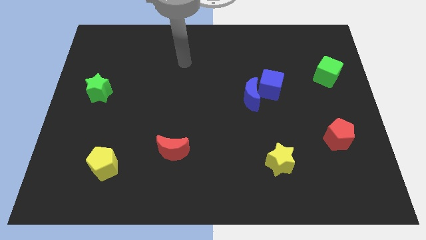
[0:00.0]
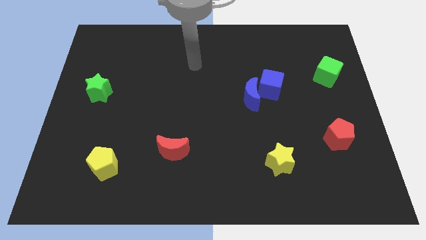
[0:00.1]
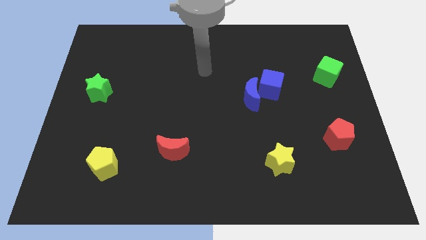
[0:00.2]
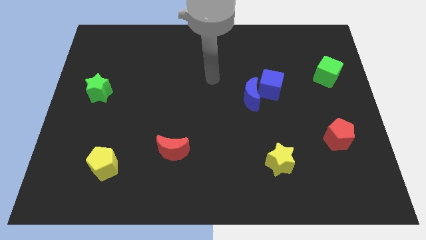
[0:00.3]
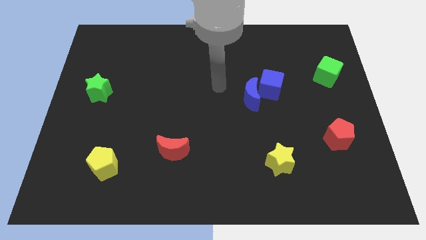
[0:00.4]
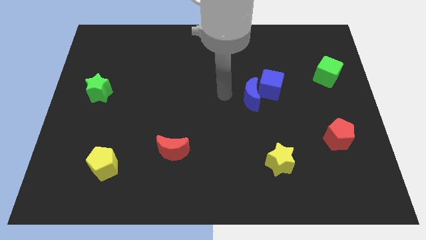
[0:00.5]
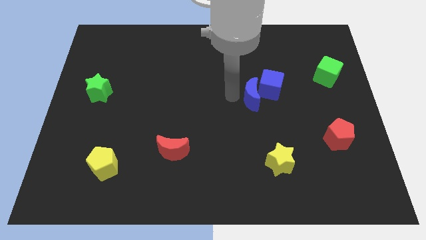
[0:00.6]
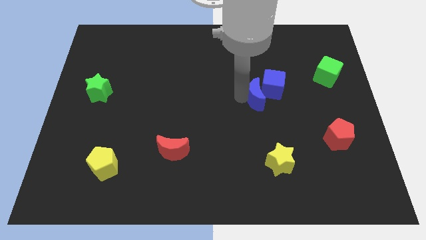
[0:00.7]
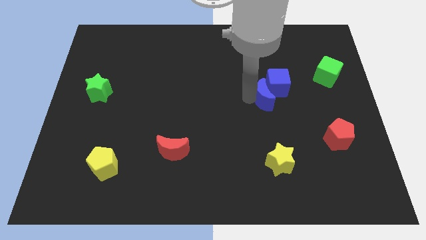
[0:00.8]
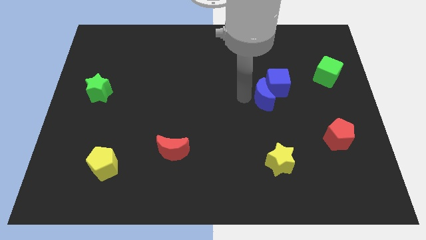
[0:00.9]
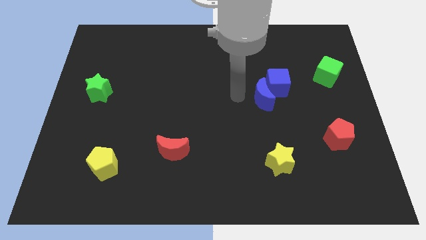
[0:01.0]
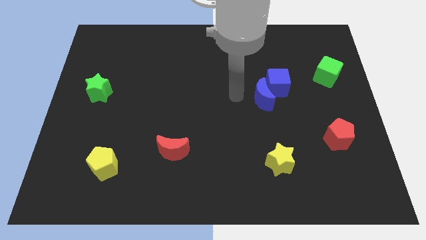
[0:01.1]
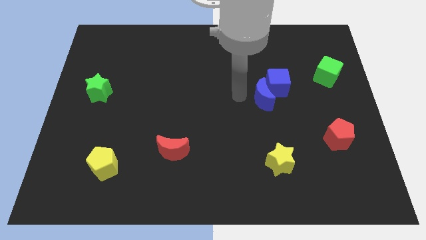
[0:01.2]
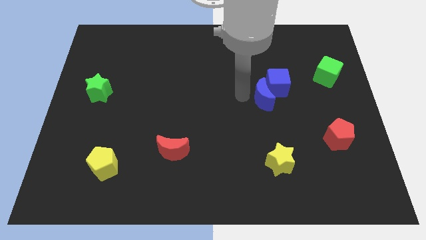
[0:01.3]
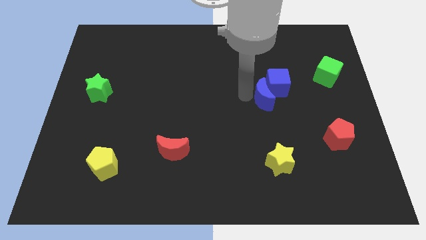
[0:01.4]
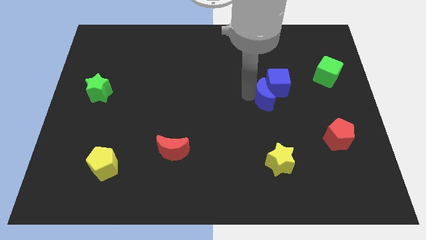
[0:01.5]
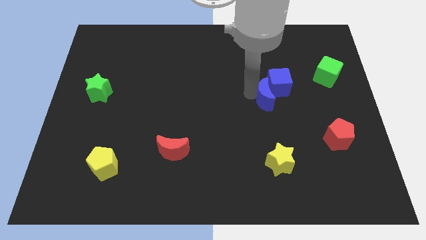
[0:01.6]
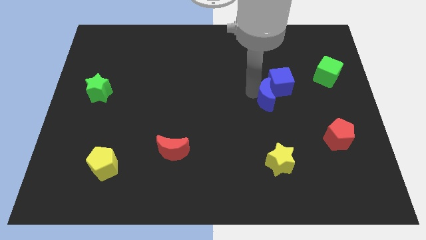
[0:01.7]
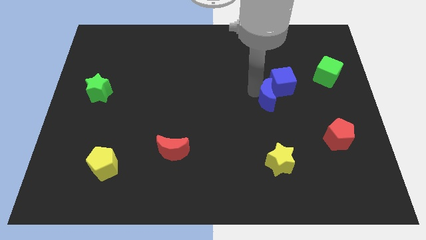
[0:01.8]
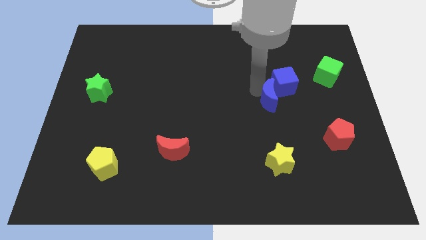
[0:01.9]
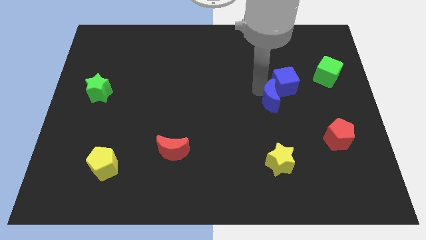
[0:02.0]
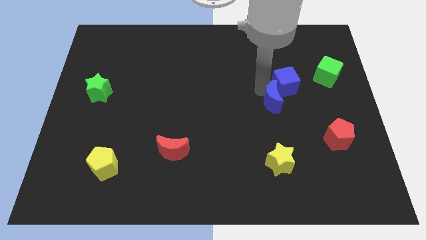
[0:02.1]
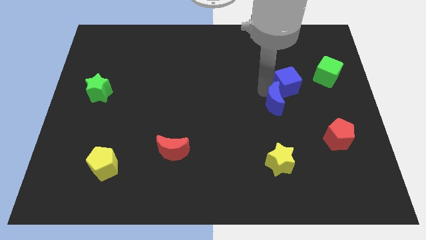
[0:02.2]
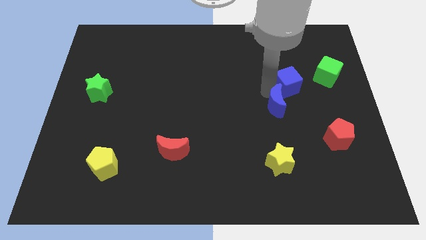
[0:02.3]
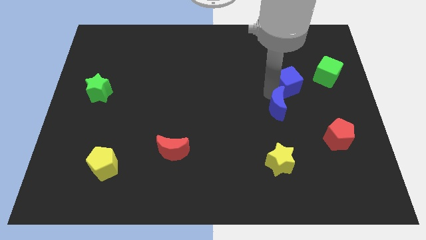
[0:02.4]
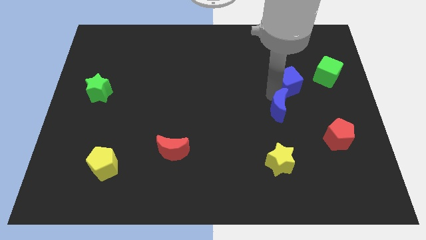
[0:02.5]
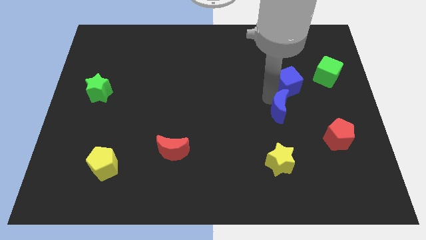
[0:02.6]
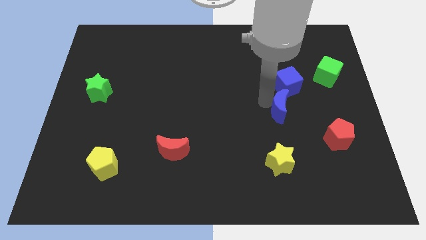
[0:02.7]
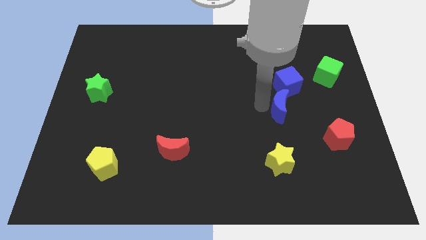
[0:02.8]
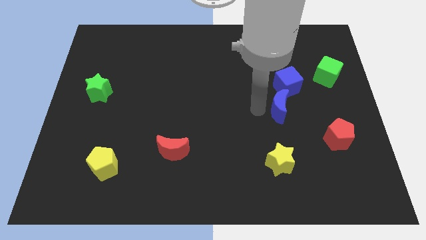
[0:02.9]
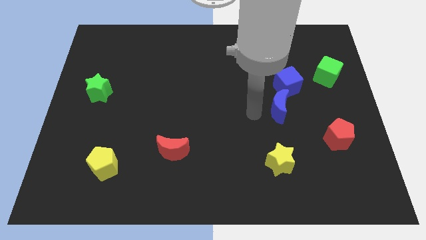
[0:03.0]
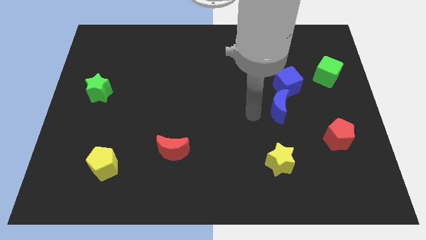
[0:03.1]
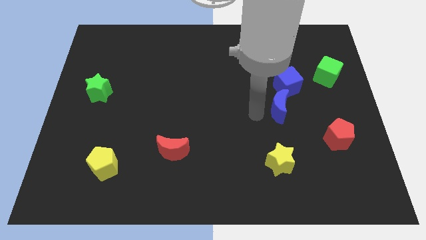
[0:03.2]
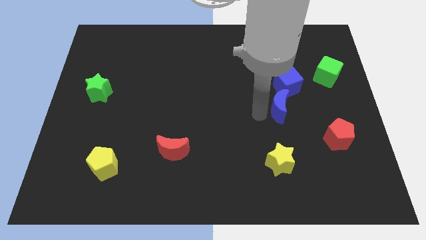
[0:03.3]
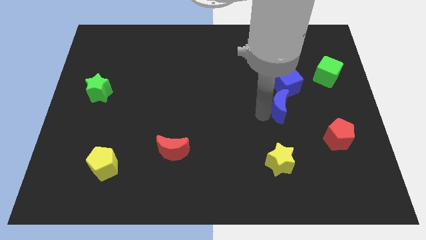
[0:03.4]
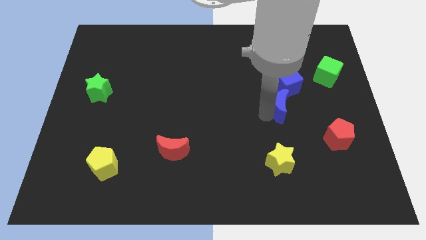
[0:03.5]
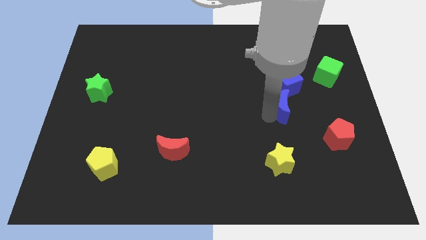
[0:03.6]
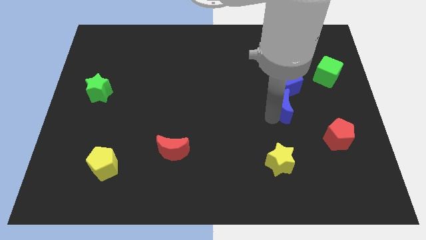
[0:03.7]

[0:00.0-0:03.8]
push the blue moon right a little

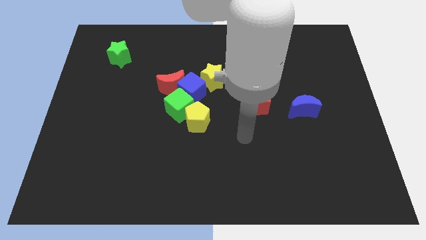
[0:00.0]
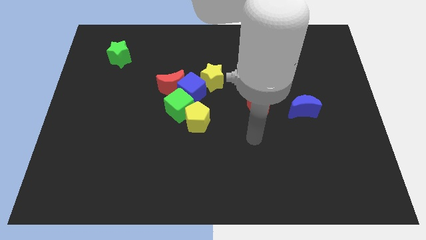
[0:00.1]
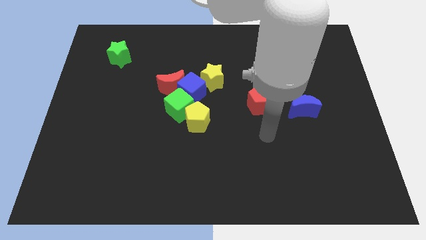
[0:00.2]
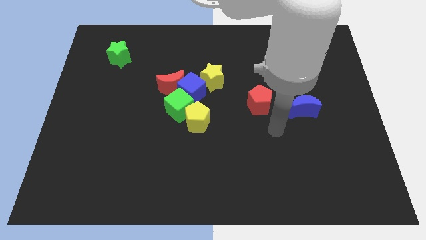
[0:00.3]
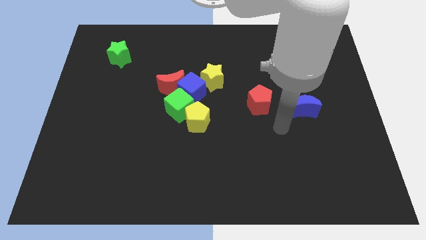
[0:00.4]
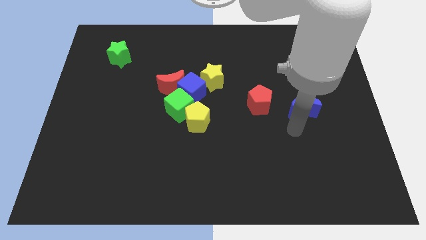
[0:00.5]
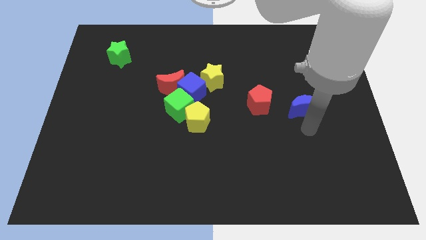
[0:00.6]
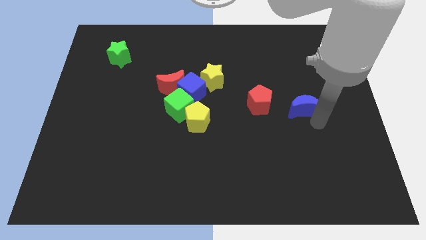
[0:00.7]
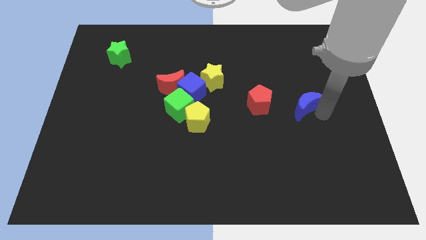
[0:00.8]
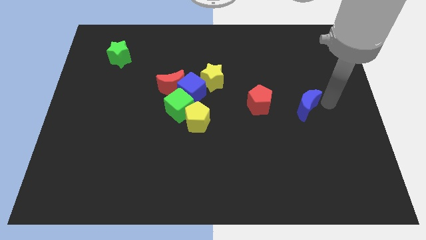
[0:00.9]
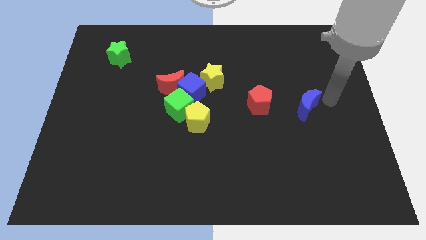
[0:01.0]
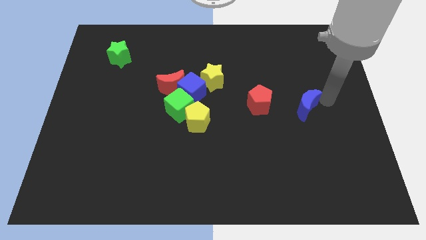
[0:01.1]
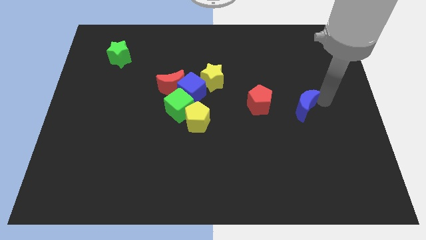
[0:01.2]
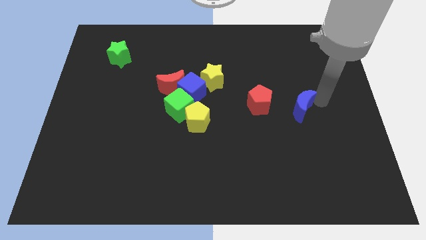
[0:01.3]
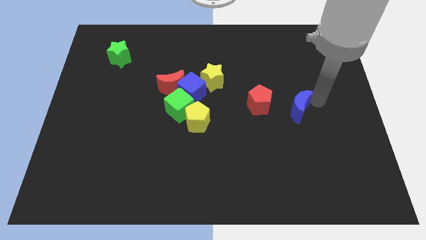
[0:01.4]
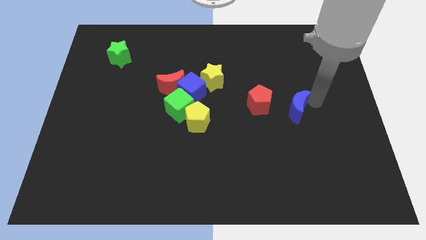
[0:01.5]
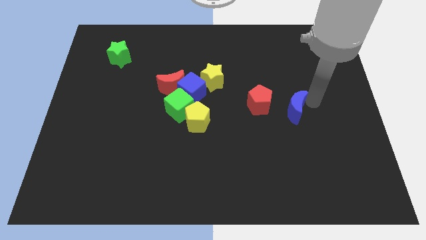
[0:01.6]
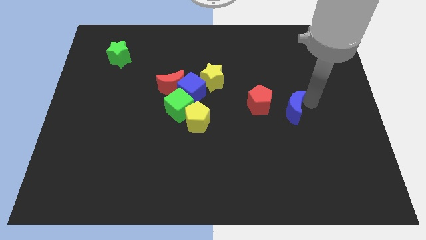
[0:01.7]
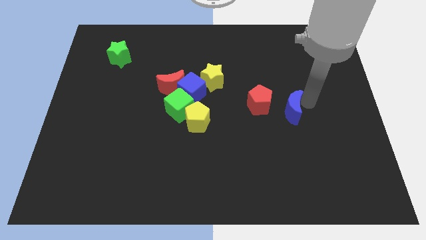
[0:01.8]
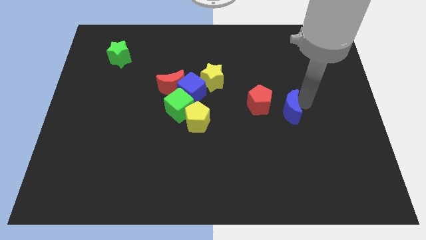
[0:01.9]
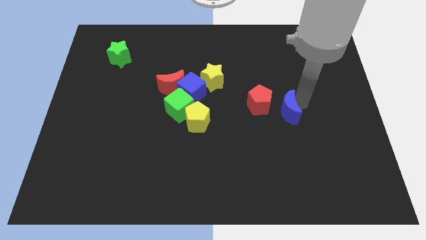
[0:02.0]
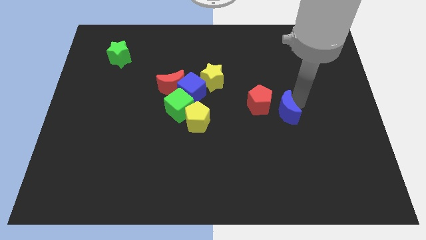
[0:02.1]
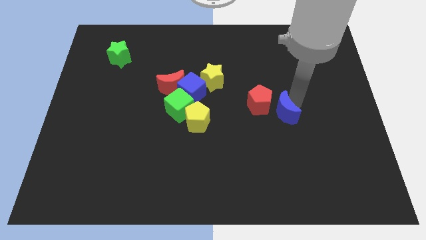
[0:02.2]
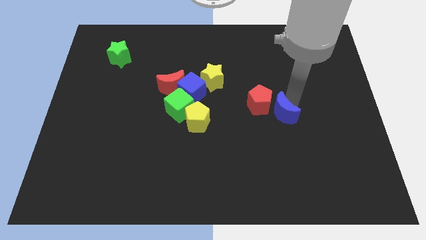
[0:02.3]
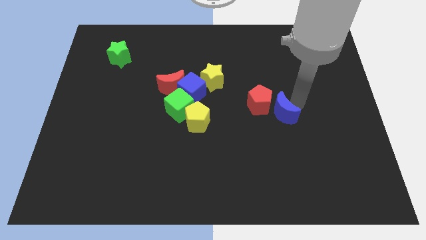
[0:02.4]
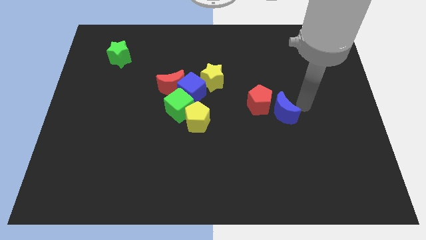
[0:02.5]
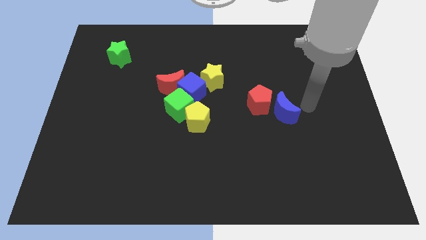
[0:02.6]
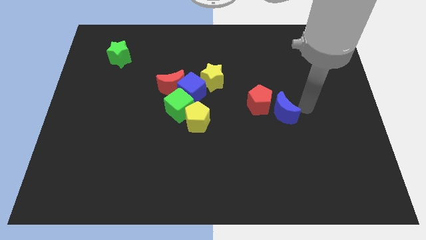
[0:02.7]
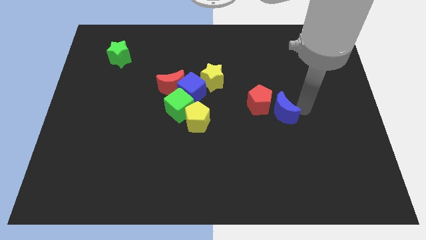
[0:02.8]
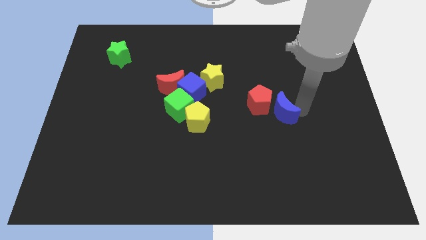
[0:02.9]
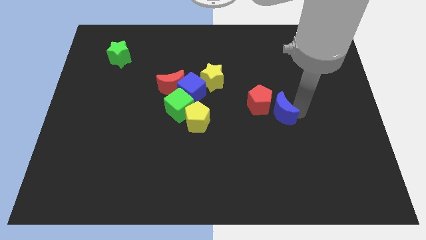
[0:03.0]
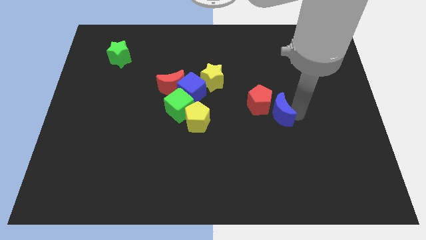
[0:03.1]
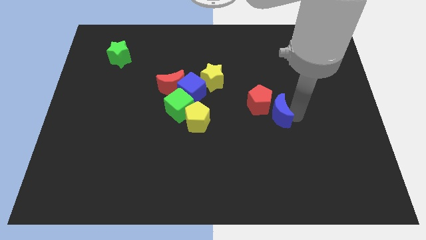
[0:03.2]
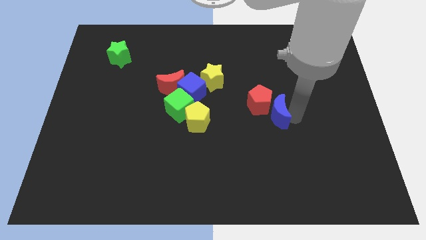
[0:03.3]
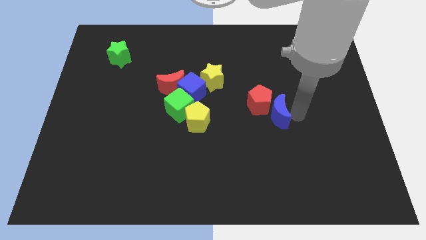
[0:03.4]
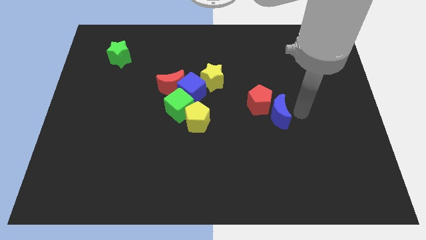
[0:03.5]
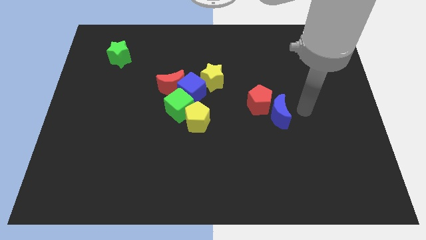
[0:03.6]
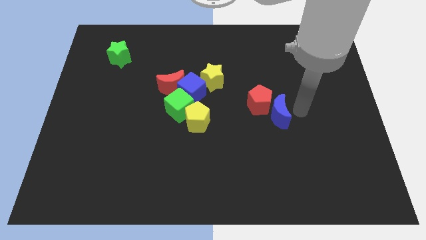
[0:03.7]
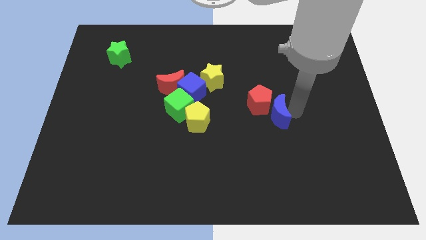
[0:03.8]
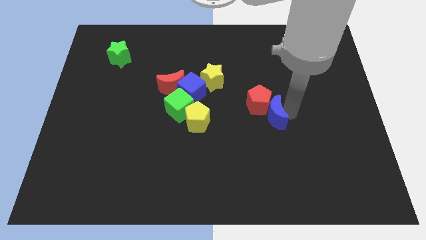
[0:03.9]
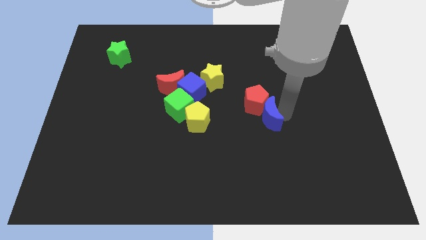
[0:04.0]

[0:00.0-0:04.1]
slightly slide the blue moon left

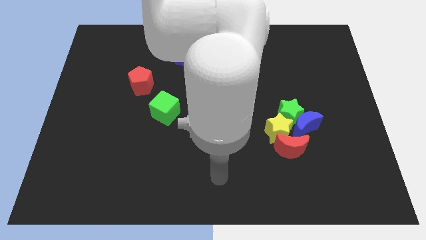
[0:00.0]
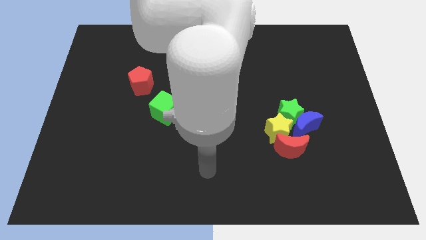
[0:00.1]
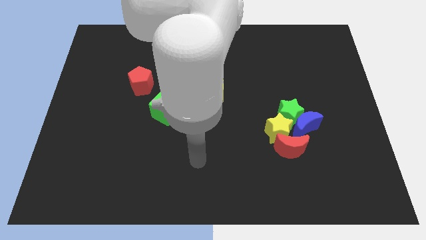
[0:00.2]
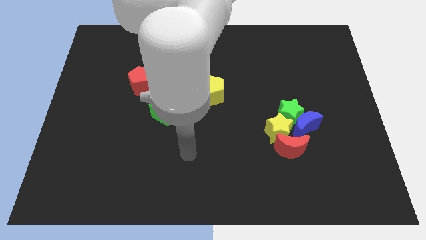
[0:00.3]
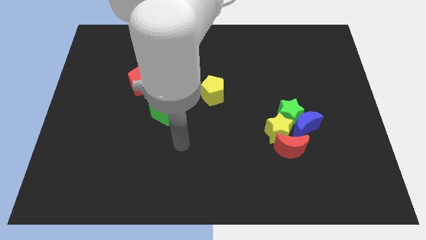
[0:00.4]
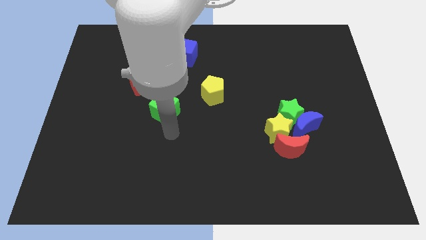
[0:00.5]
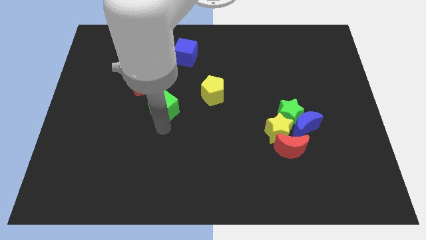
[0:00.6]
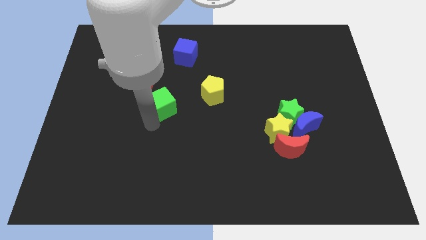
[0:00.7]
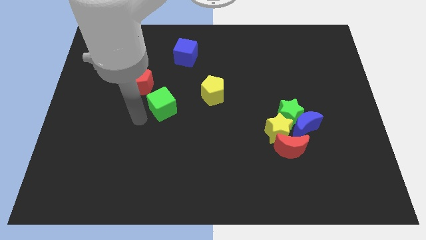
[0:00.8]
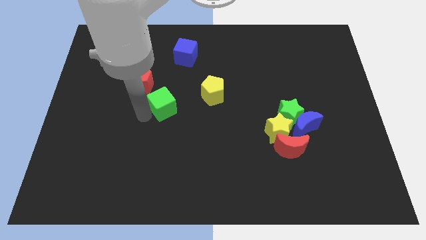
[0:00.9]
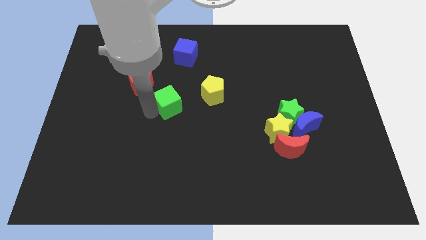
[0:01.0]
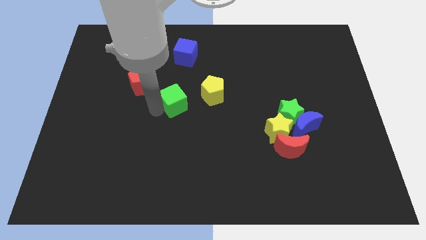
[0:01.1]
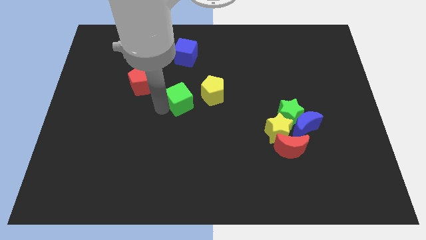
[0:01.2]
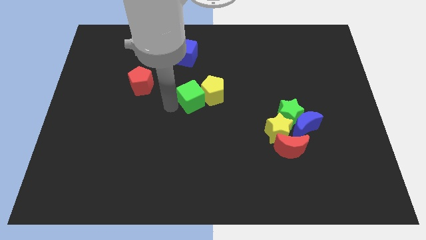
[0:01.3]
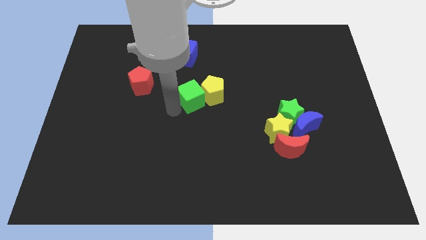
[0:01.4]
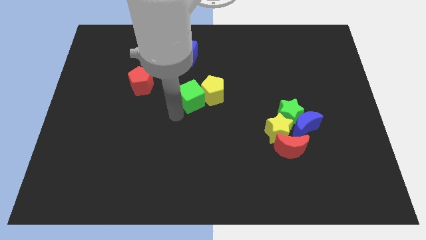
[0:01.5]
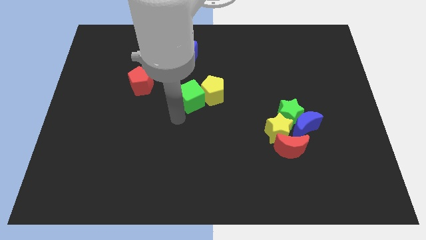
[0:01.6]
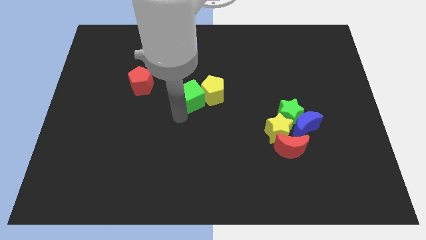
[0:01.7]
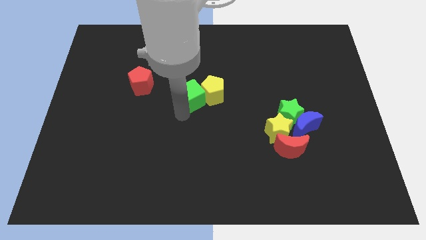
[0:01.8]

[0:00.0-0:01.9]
push the green cube a little bit diagonally up and to the right
